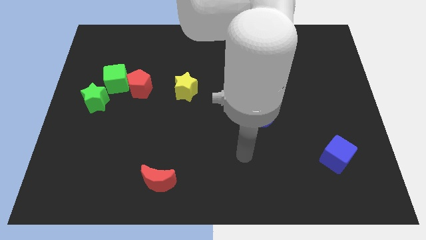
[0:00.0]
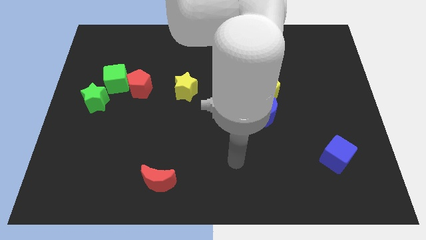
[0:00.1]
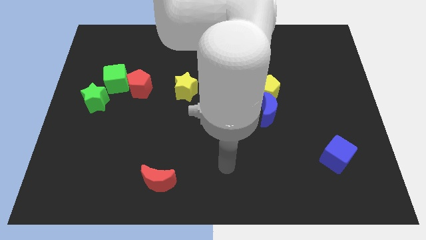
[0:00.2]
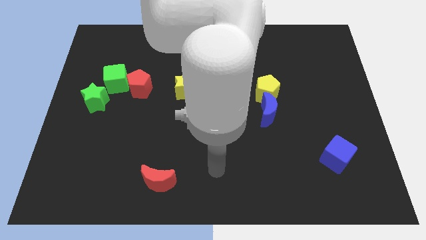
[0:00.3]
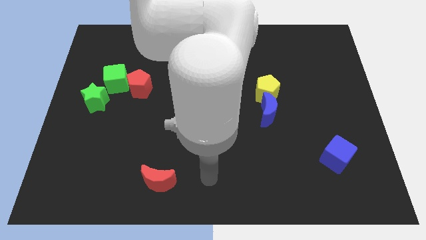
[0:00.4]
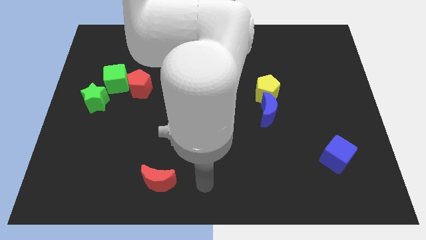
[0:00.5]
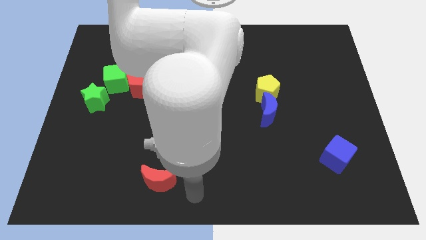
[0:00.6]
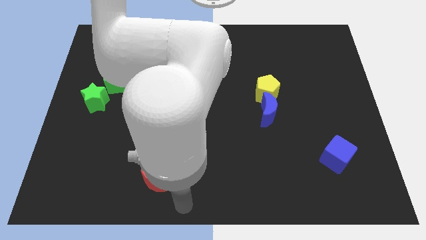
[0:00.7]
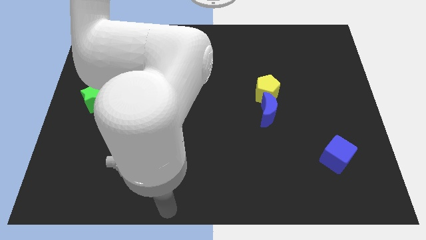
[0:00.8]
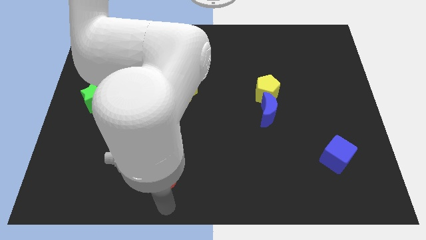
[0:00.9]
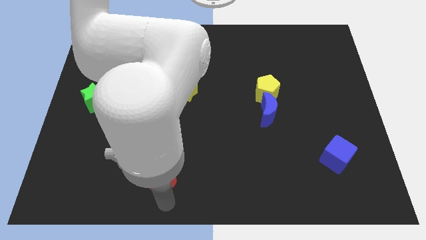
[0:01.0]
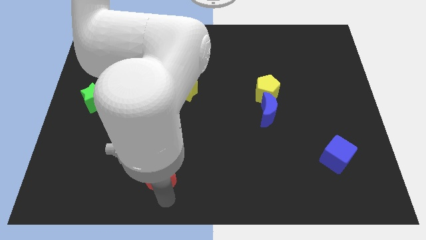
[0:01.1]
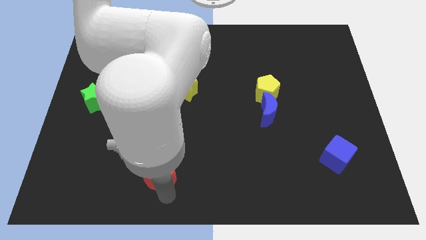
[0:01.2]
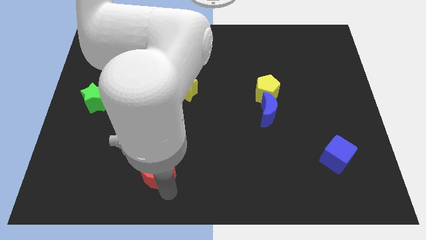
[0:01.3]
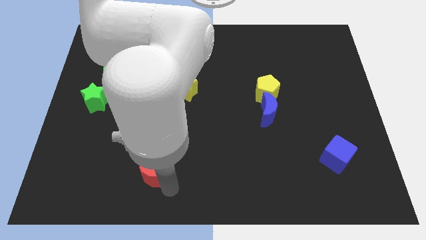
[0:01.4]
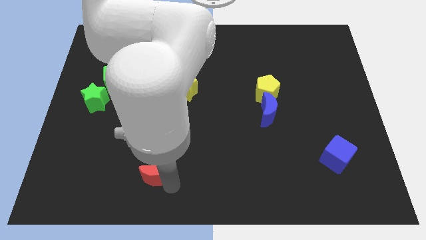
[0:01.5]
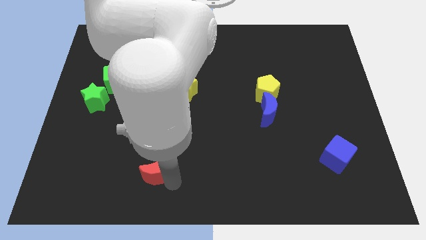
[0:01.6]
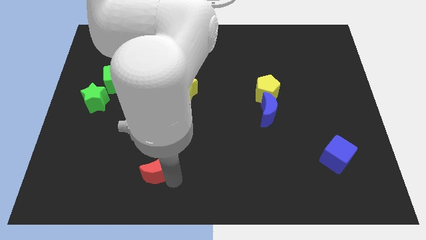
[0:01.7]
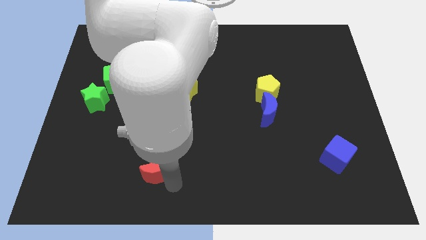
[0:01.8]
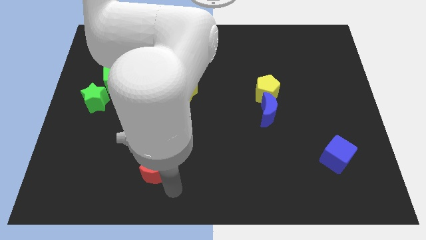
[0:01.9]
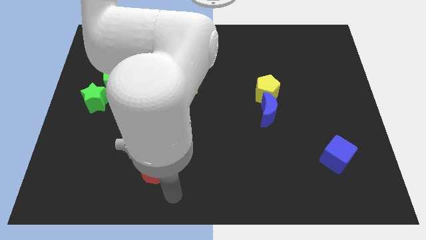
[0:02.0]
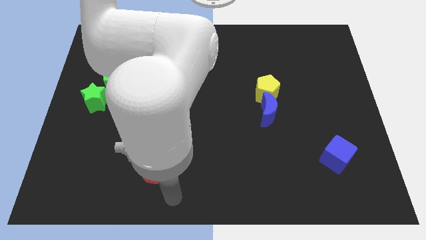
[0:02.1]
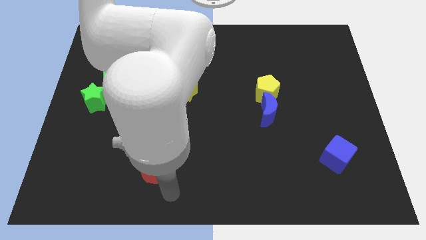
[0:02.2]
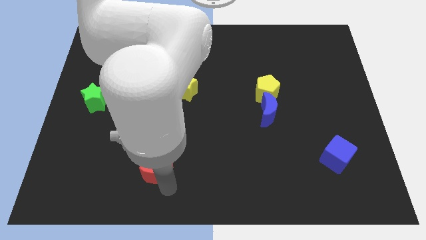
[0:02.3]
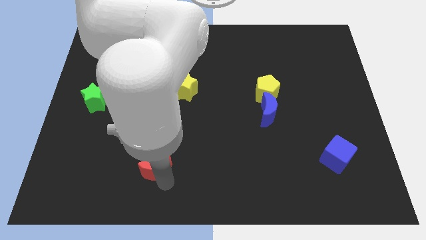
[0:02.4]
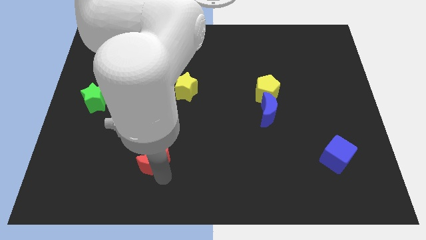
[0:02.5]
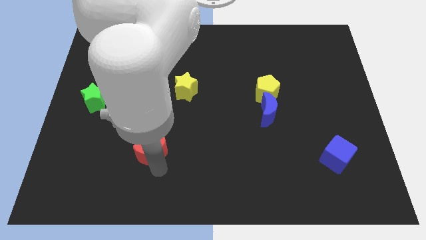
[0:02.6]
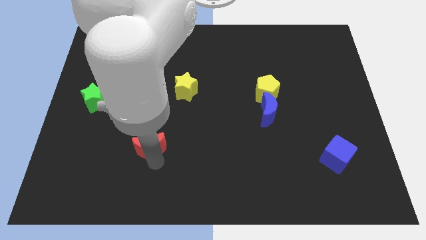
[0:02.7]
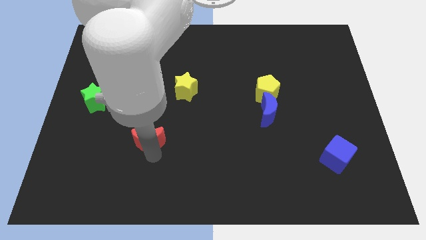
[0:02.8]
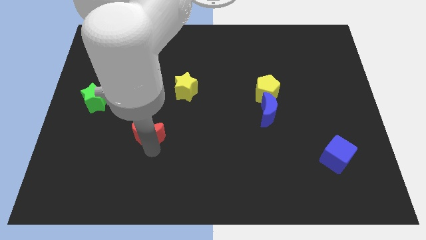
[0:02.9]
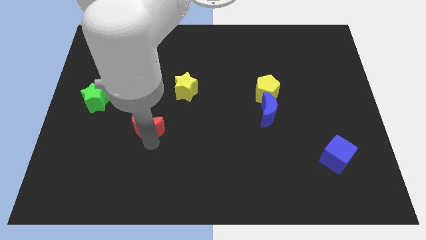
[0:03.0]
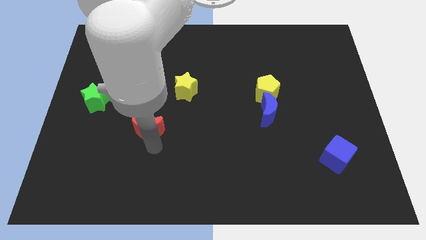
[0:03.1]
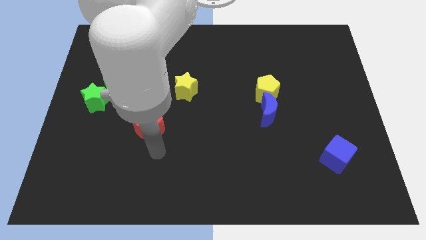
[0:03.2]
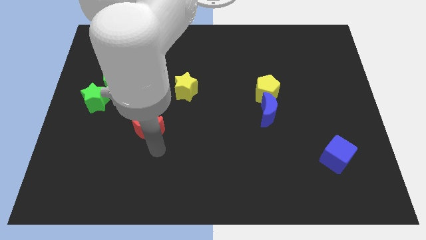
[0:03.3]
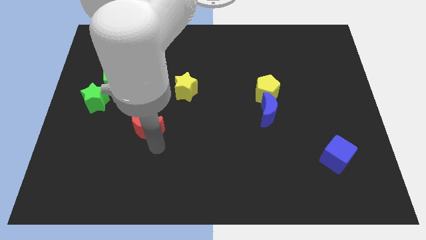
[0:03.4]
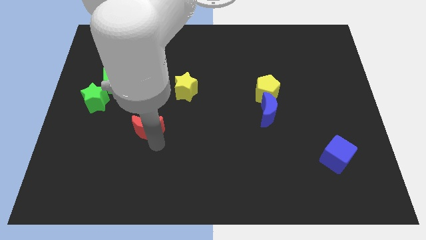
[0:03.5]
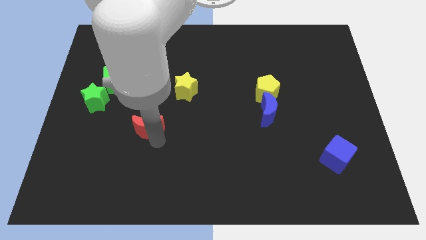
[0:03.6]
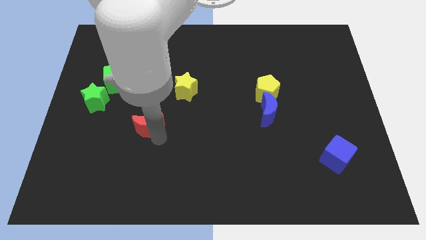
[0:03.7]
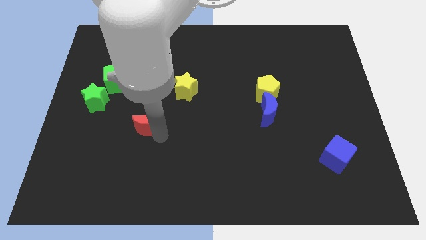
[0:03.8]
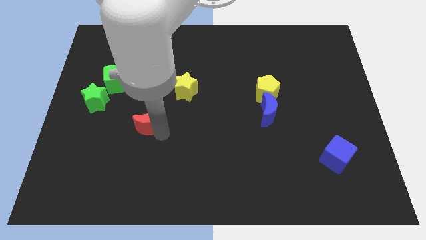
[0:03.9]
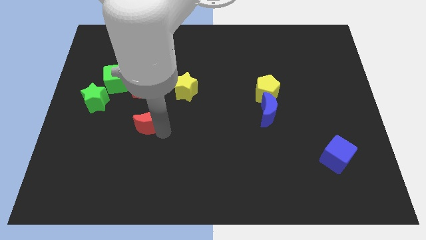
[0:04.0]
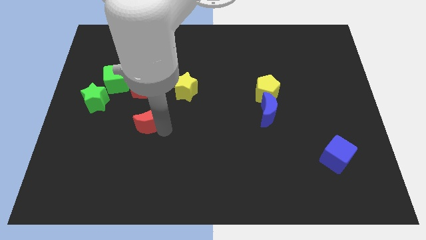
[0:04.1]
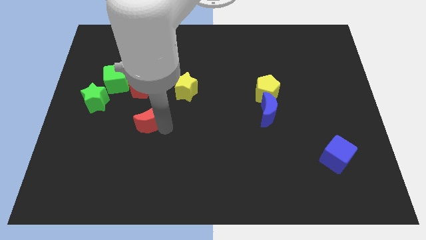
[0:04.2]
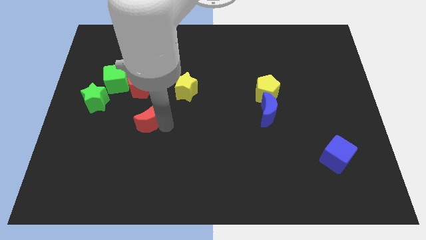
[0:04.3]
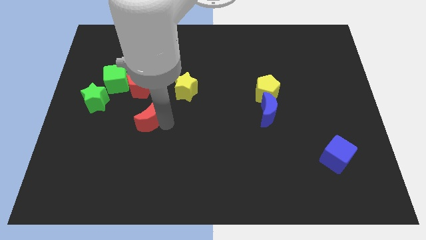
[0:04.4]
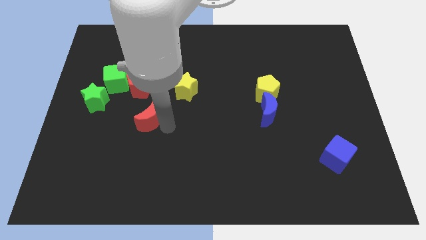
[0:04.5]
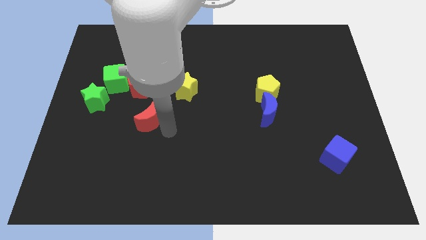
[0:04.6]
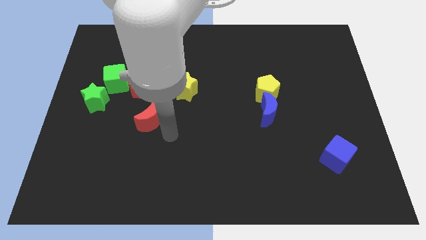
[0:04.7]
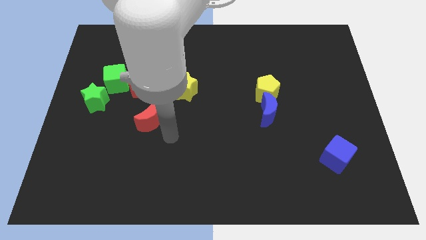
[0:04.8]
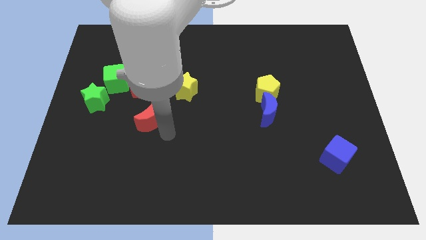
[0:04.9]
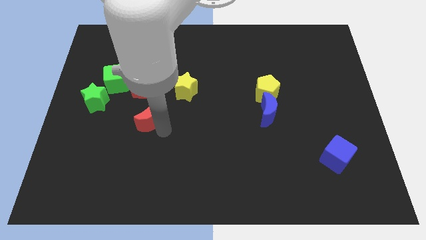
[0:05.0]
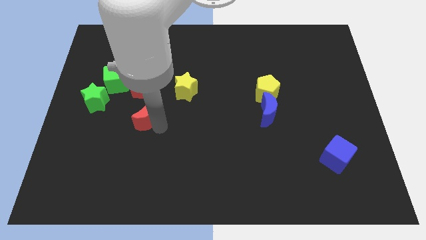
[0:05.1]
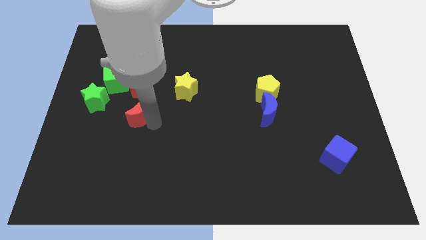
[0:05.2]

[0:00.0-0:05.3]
move the red moon diagonally down and to the right of the green cube

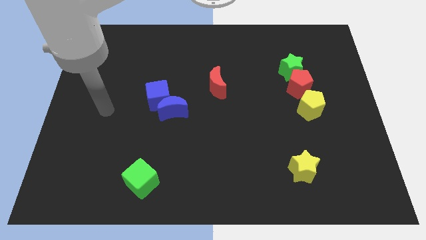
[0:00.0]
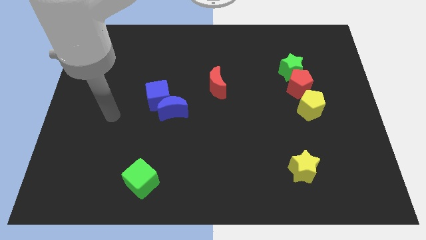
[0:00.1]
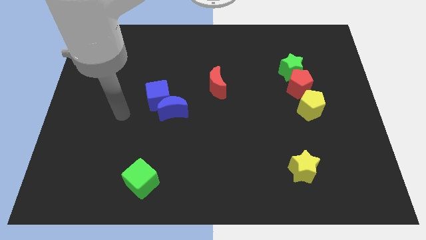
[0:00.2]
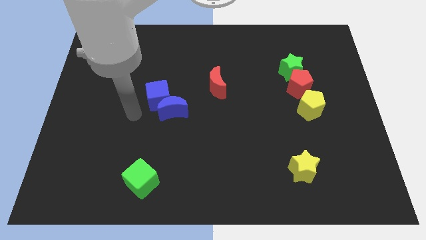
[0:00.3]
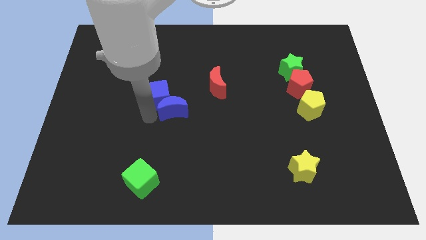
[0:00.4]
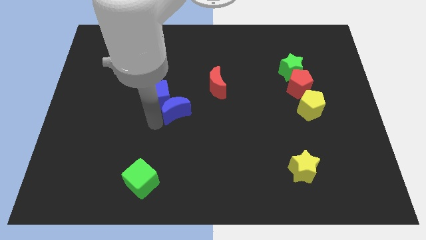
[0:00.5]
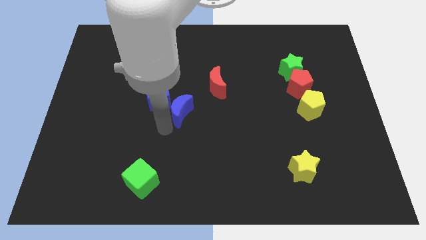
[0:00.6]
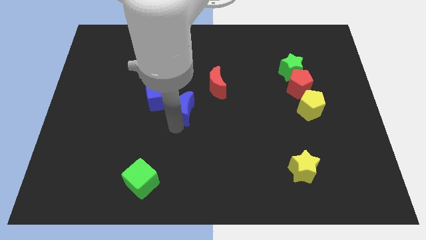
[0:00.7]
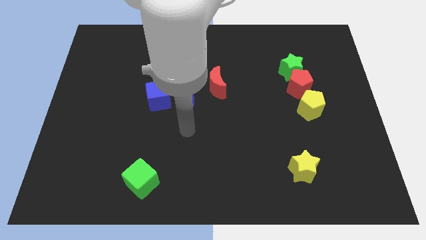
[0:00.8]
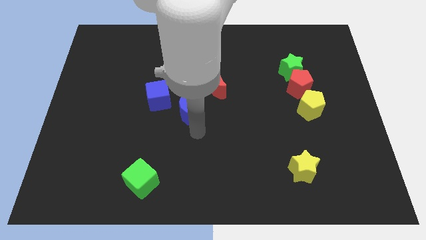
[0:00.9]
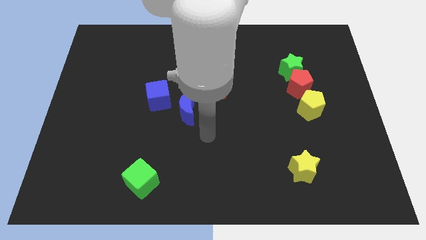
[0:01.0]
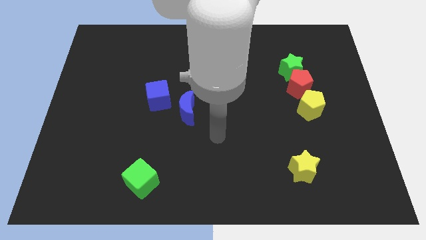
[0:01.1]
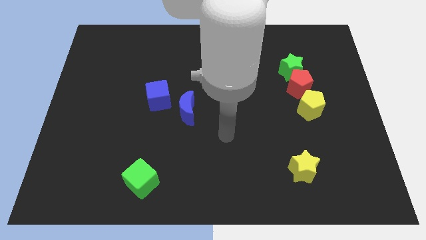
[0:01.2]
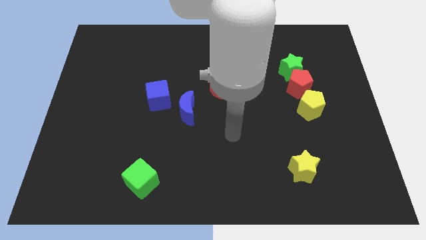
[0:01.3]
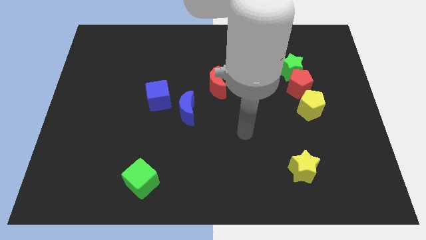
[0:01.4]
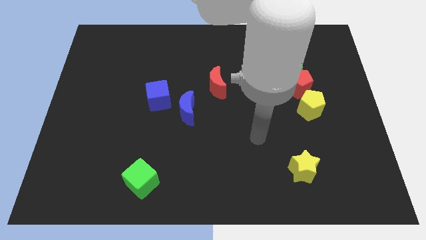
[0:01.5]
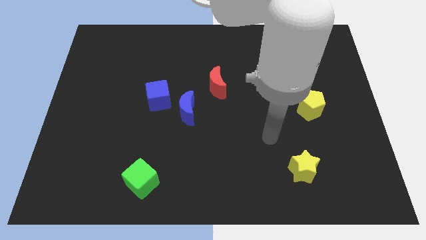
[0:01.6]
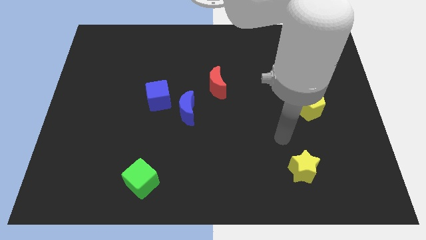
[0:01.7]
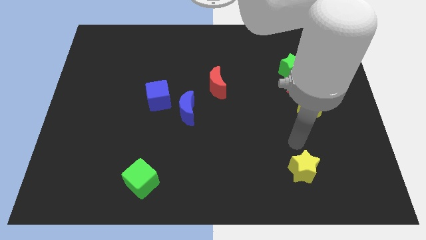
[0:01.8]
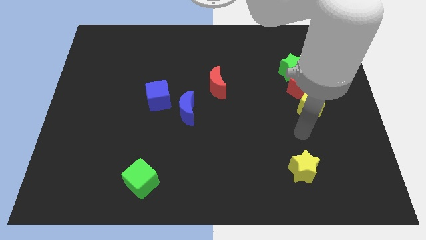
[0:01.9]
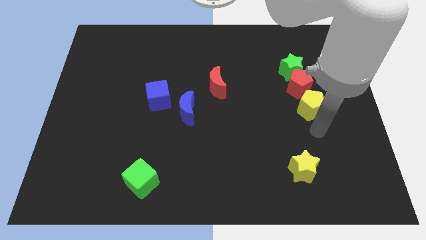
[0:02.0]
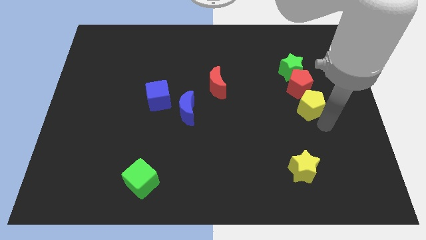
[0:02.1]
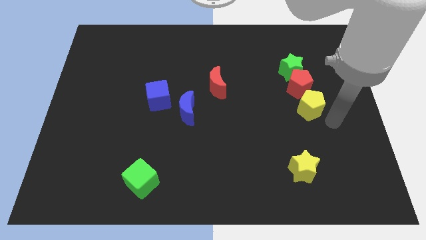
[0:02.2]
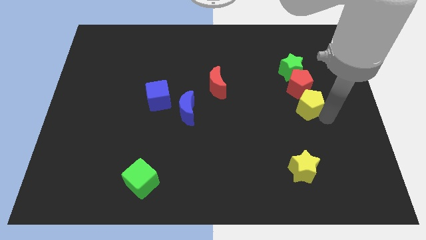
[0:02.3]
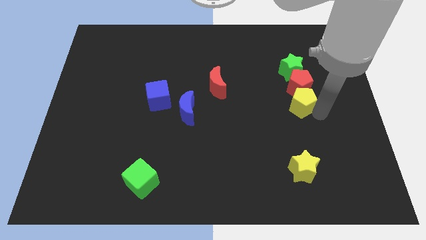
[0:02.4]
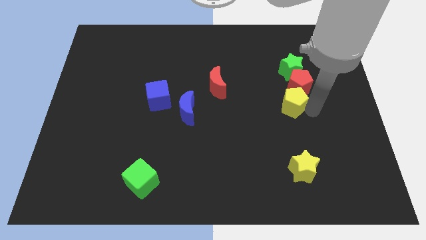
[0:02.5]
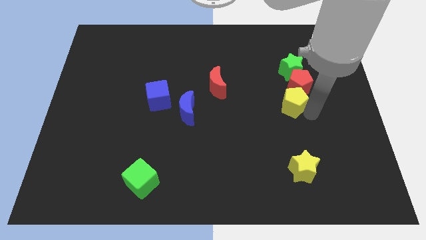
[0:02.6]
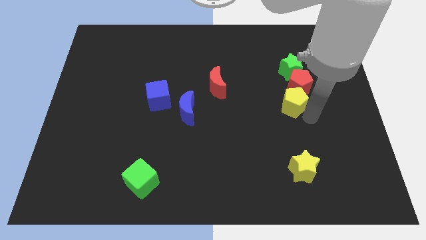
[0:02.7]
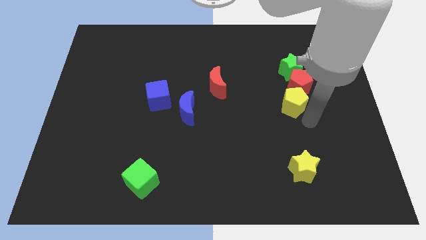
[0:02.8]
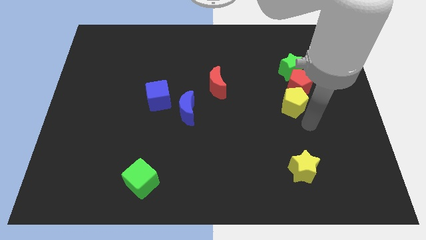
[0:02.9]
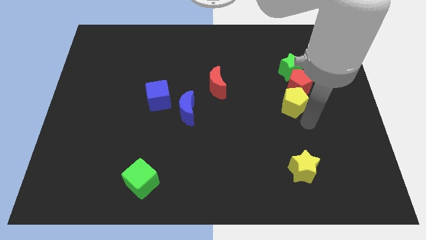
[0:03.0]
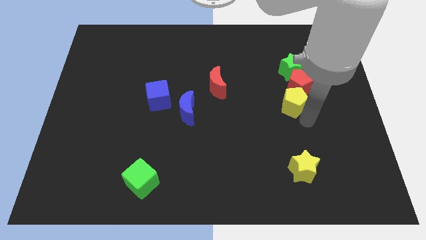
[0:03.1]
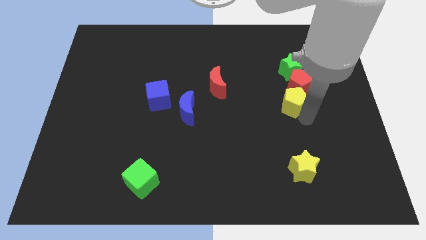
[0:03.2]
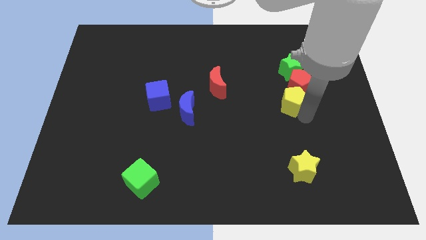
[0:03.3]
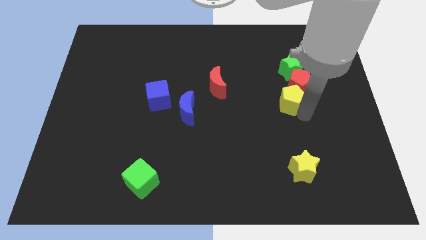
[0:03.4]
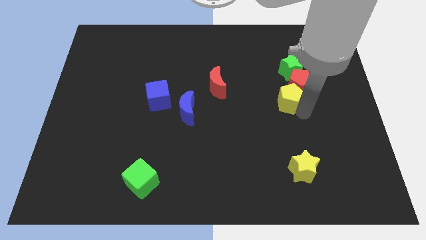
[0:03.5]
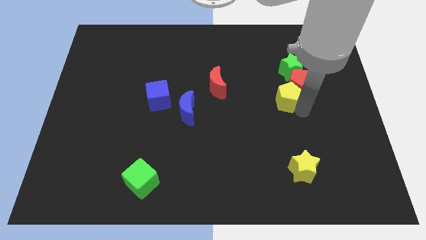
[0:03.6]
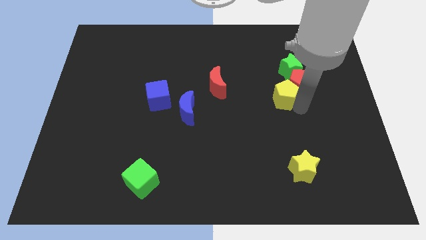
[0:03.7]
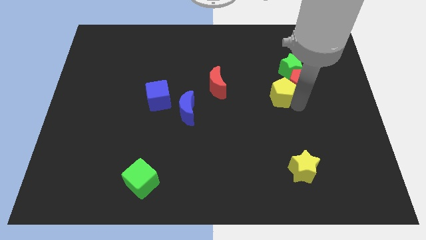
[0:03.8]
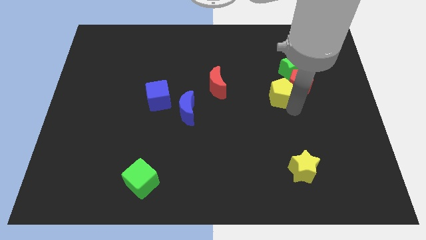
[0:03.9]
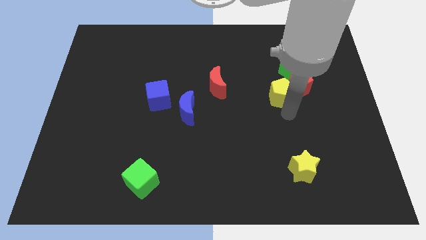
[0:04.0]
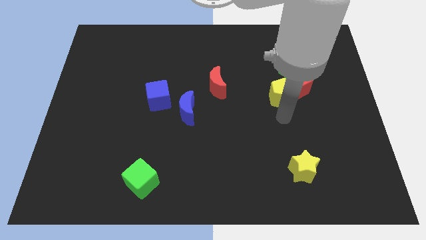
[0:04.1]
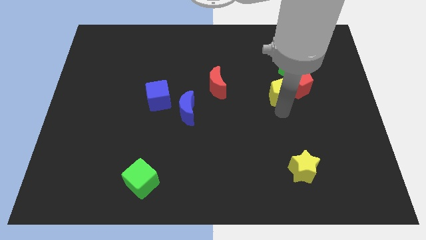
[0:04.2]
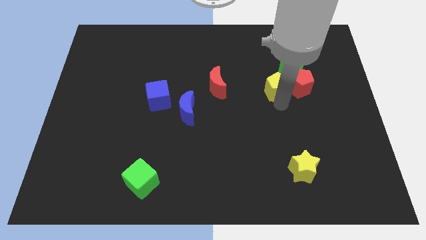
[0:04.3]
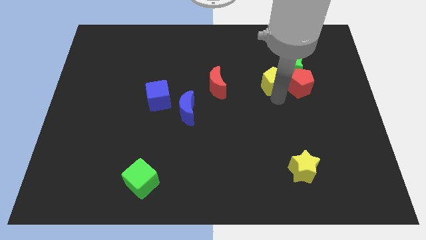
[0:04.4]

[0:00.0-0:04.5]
push the yellow pentagon diagonally up and to the left of the red pentagon
